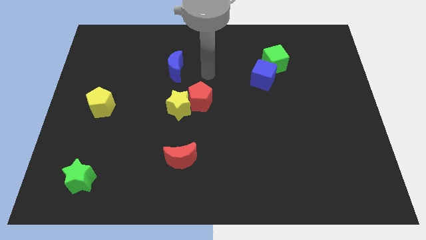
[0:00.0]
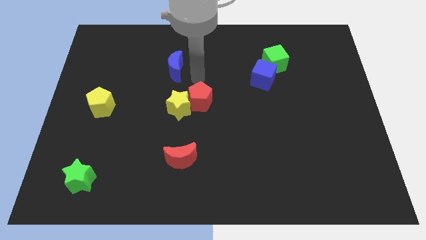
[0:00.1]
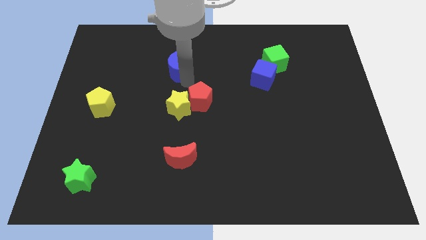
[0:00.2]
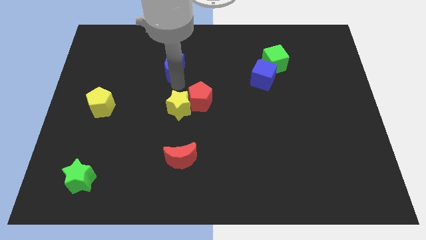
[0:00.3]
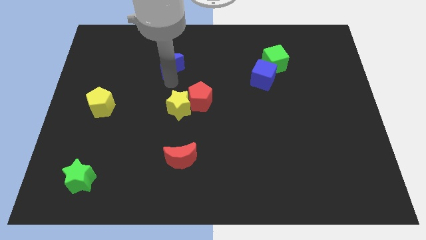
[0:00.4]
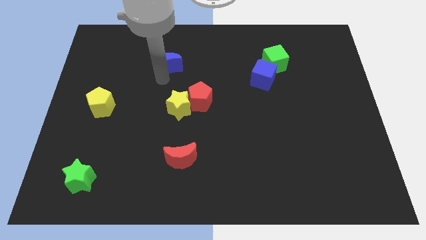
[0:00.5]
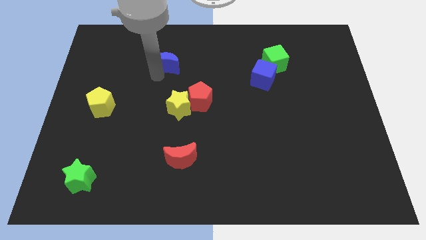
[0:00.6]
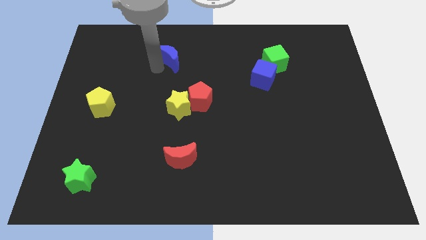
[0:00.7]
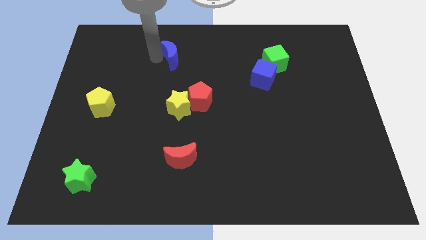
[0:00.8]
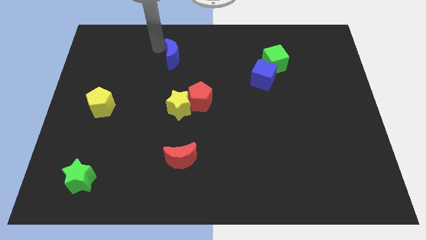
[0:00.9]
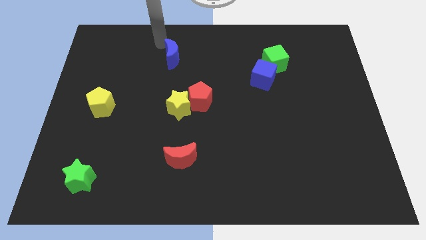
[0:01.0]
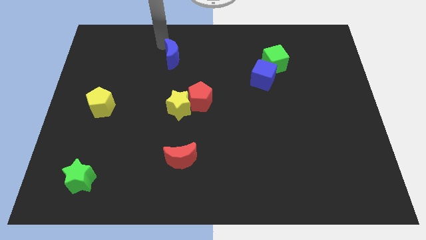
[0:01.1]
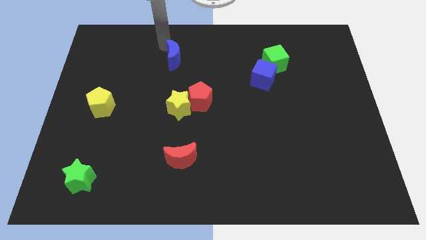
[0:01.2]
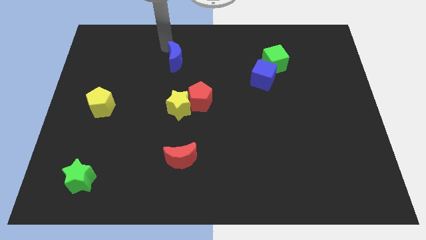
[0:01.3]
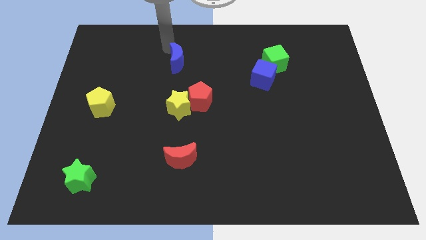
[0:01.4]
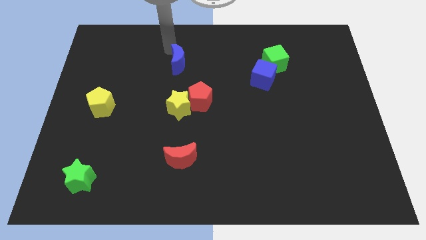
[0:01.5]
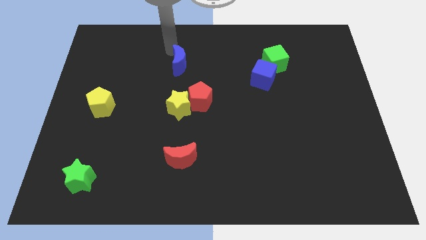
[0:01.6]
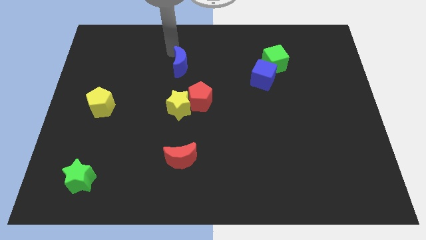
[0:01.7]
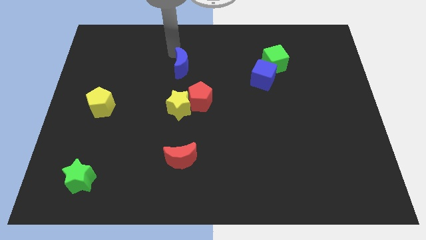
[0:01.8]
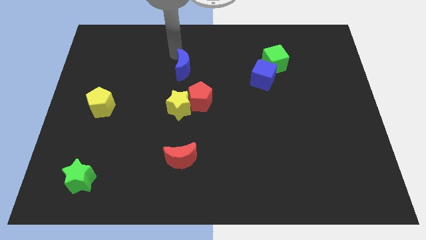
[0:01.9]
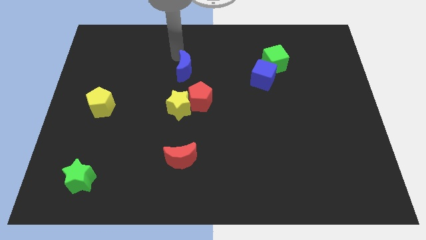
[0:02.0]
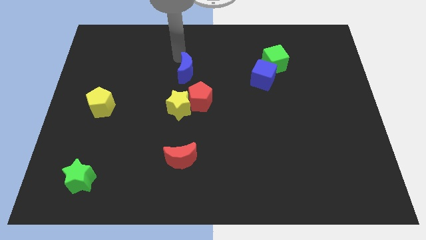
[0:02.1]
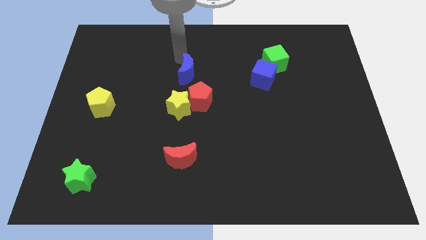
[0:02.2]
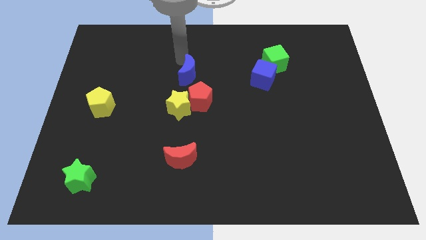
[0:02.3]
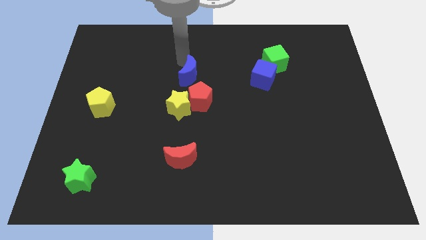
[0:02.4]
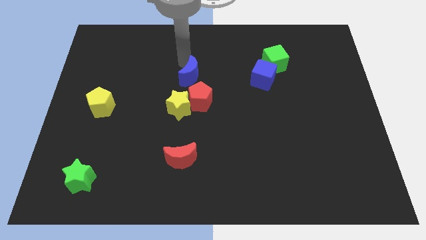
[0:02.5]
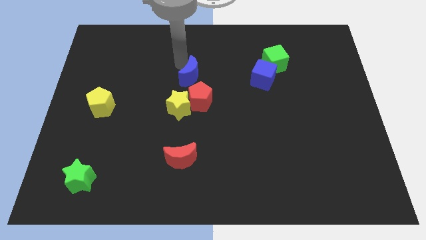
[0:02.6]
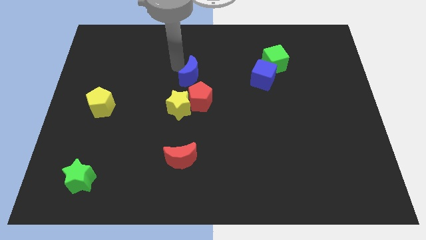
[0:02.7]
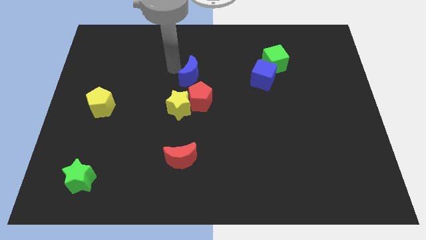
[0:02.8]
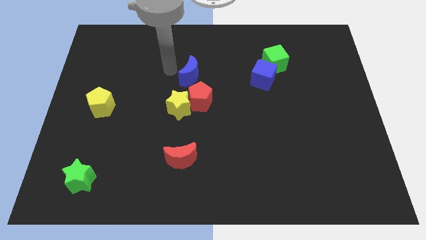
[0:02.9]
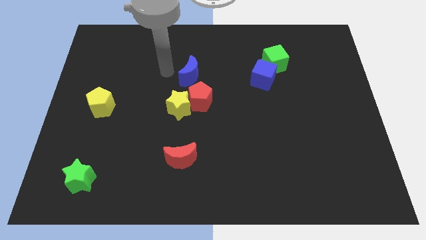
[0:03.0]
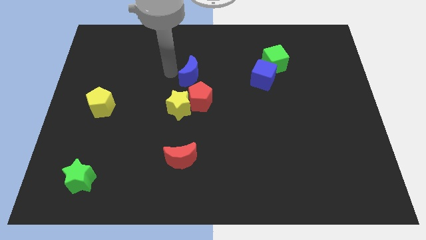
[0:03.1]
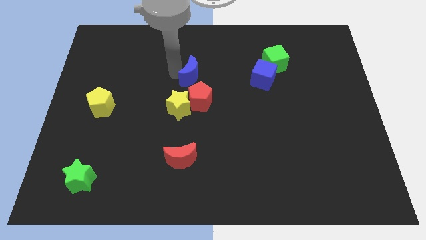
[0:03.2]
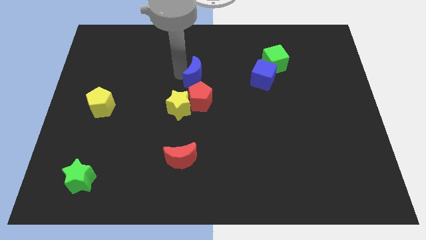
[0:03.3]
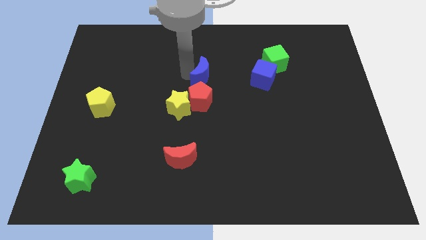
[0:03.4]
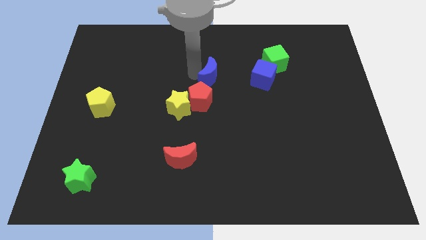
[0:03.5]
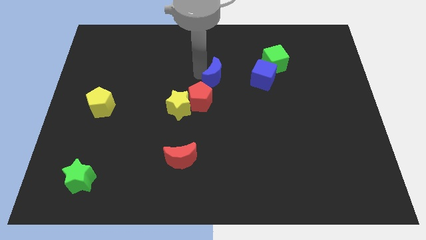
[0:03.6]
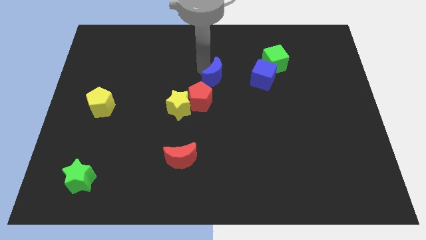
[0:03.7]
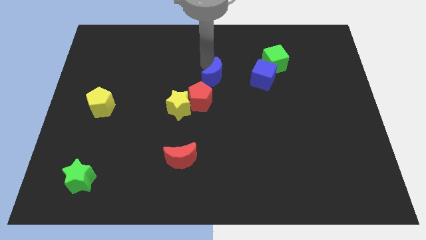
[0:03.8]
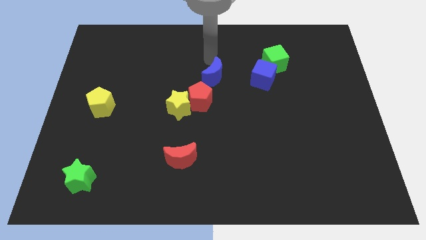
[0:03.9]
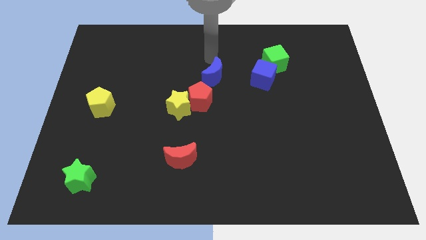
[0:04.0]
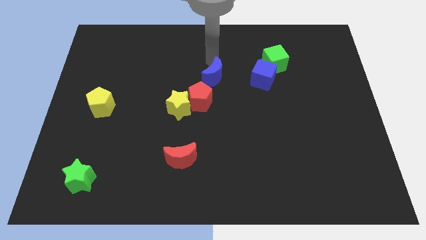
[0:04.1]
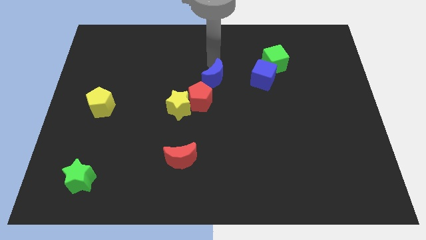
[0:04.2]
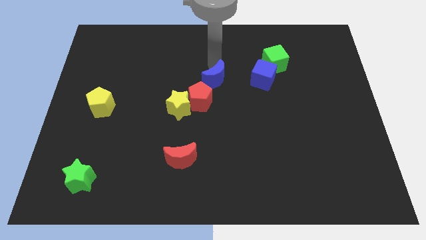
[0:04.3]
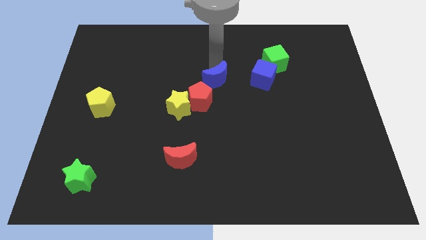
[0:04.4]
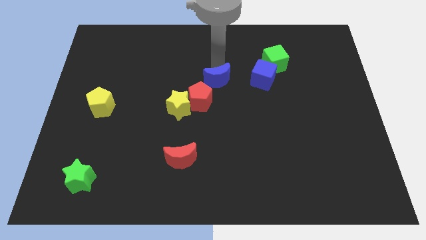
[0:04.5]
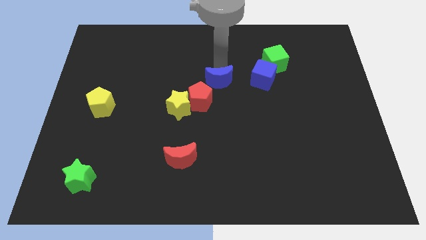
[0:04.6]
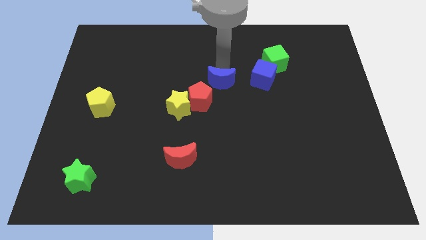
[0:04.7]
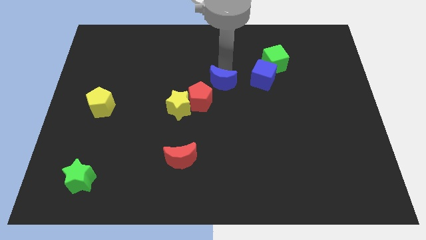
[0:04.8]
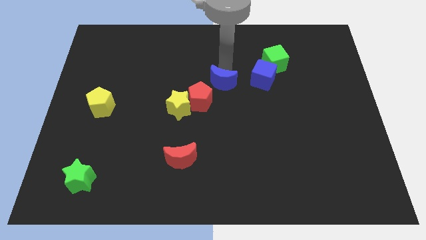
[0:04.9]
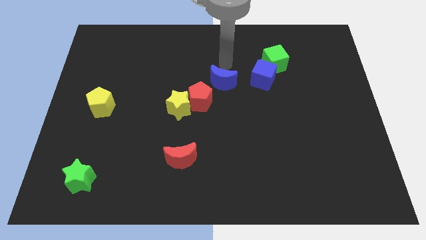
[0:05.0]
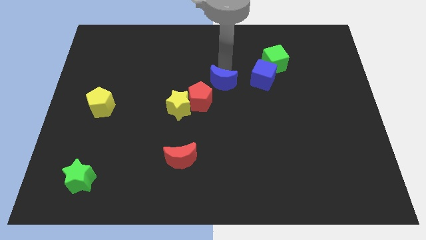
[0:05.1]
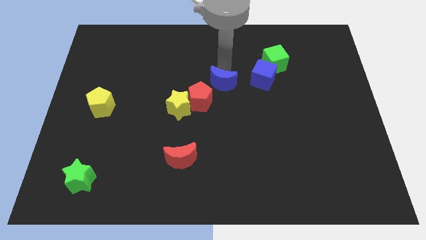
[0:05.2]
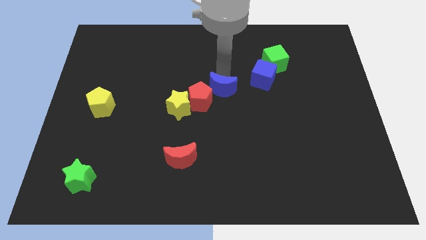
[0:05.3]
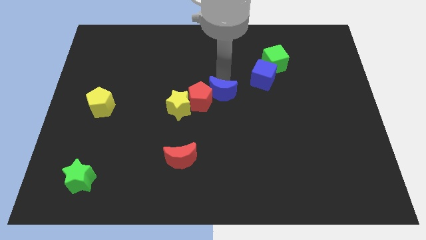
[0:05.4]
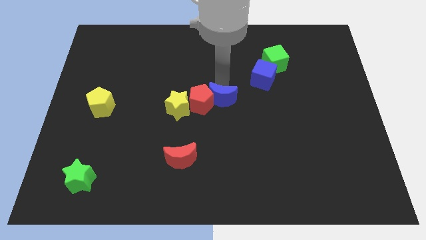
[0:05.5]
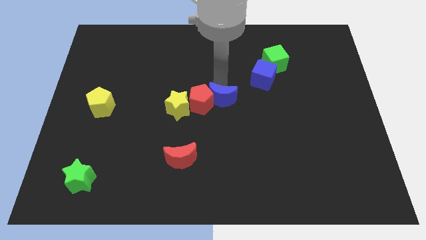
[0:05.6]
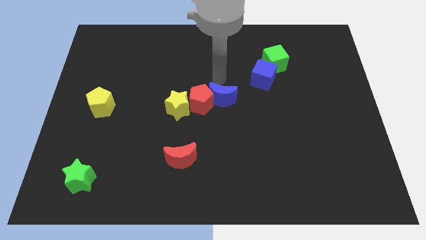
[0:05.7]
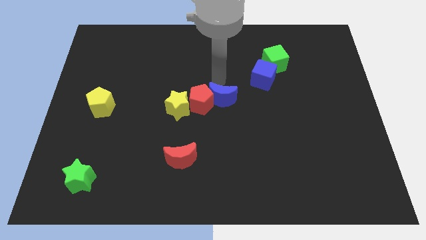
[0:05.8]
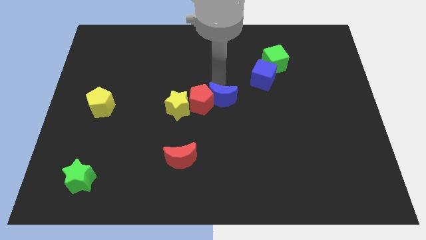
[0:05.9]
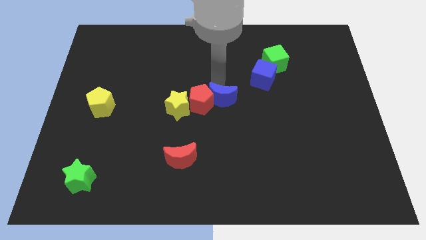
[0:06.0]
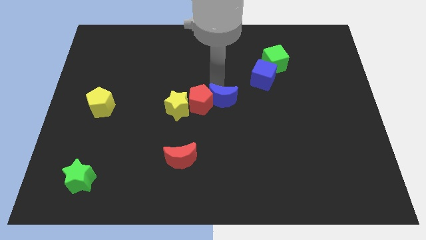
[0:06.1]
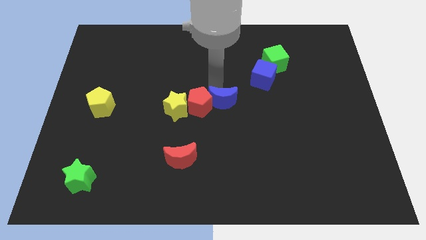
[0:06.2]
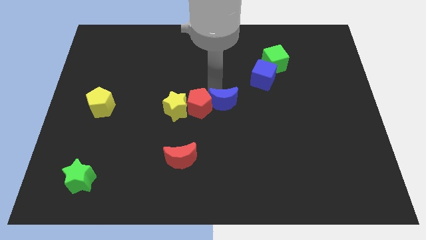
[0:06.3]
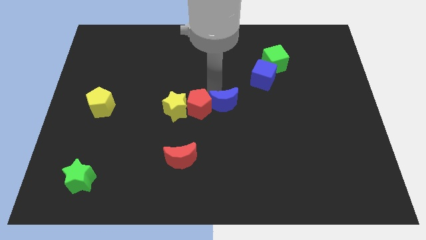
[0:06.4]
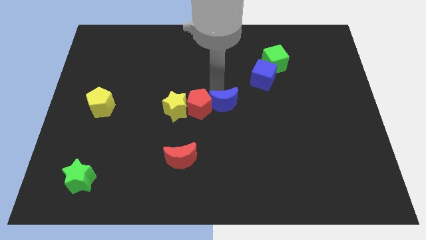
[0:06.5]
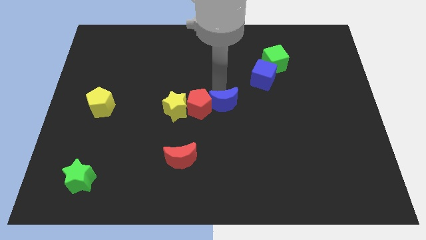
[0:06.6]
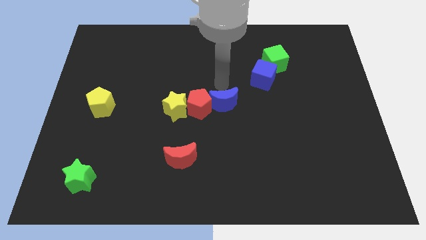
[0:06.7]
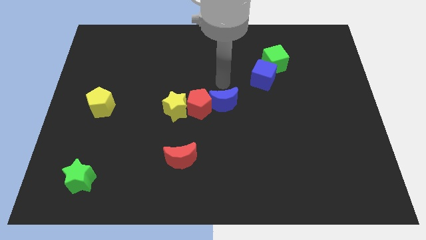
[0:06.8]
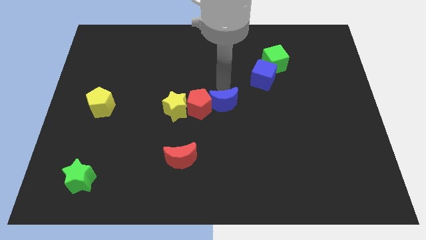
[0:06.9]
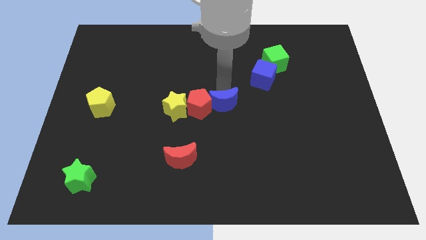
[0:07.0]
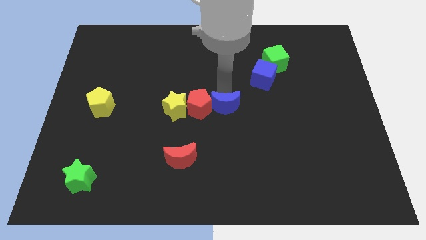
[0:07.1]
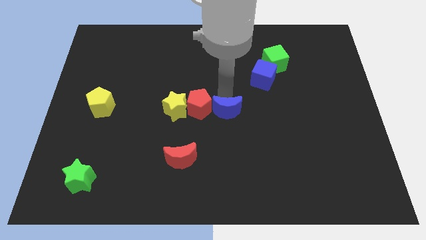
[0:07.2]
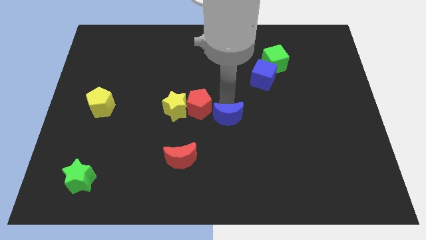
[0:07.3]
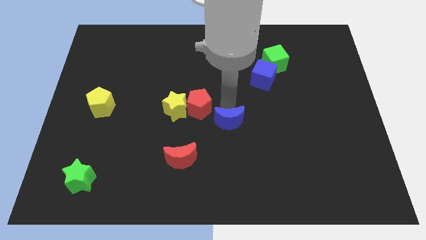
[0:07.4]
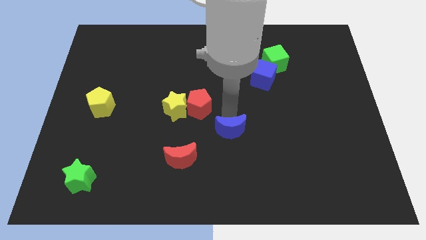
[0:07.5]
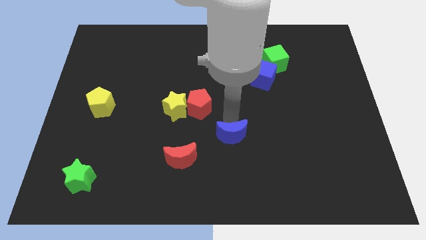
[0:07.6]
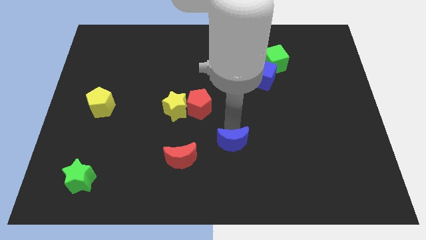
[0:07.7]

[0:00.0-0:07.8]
slide the blue moon to the right of the red moon
